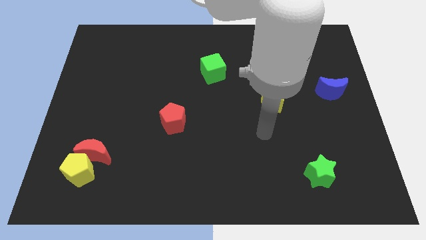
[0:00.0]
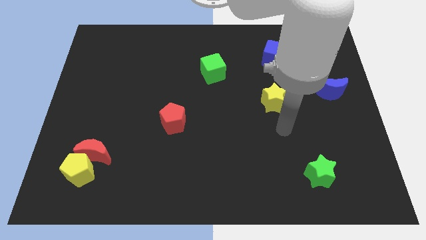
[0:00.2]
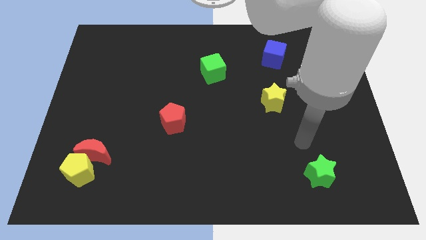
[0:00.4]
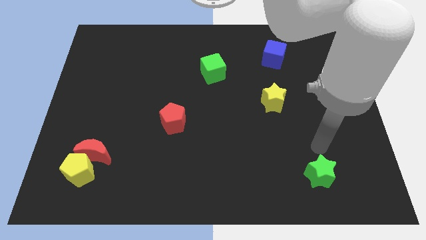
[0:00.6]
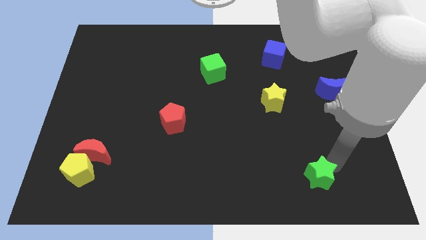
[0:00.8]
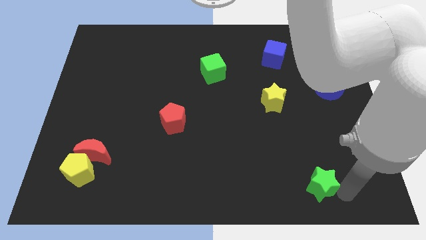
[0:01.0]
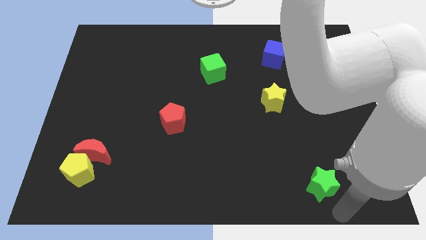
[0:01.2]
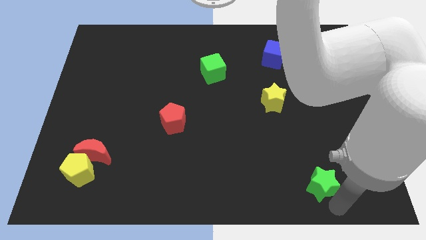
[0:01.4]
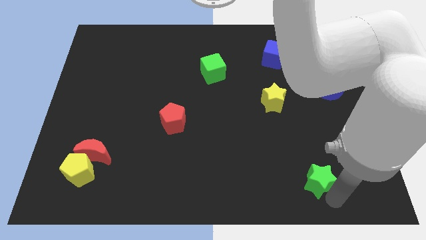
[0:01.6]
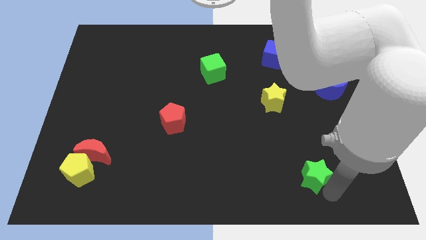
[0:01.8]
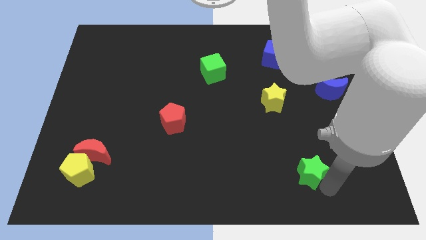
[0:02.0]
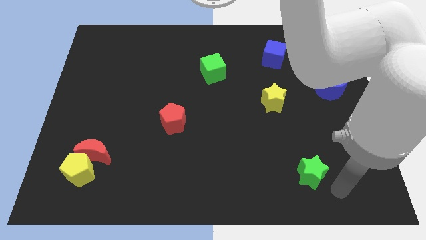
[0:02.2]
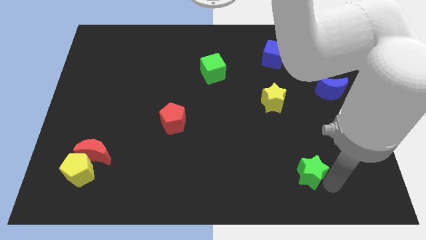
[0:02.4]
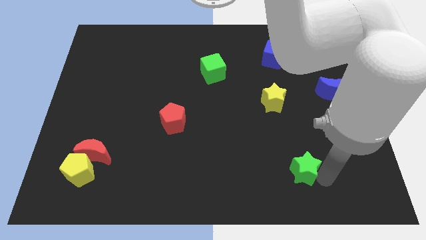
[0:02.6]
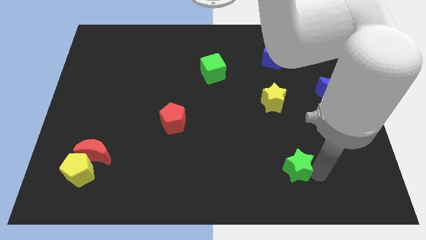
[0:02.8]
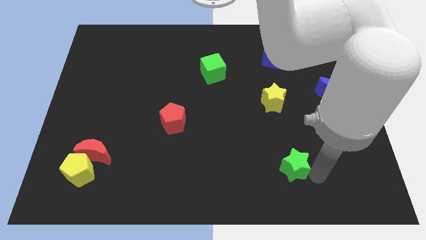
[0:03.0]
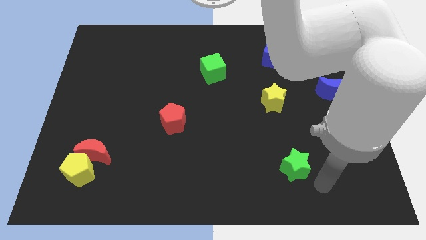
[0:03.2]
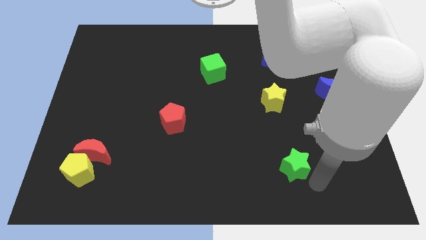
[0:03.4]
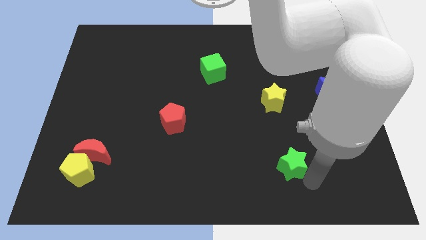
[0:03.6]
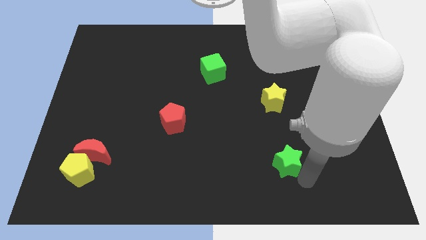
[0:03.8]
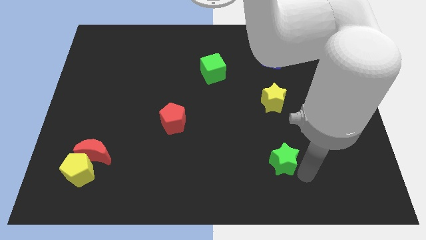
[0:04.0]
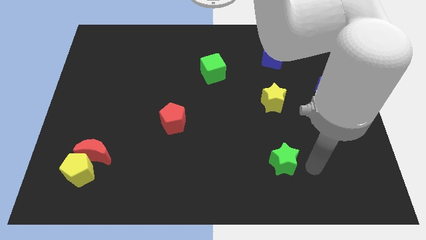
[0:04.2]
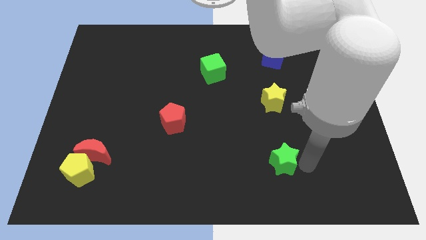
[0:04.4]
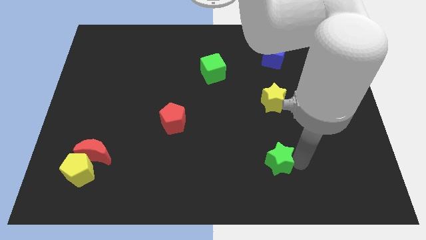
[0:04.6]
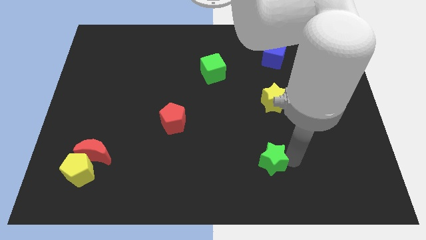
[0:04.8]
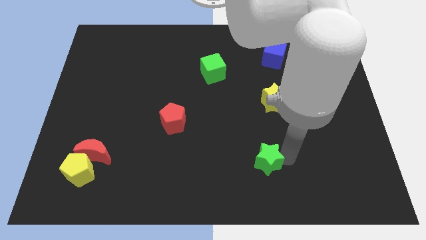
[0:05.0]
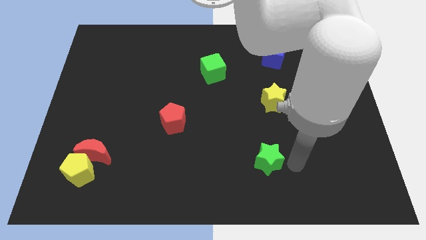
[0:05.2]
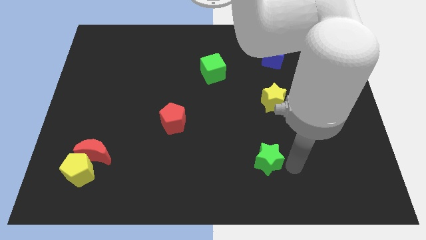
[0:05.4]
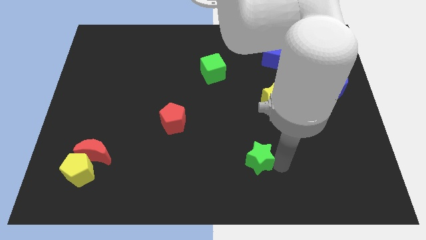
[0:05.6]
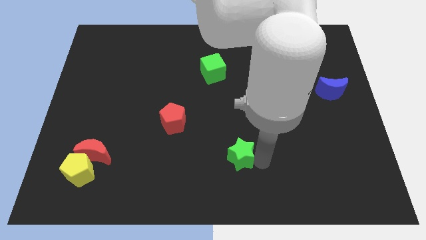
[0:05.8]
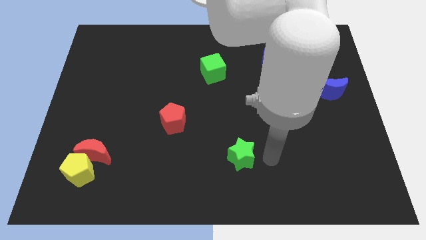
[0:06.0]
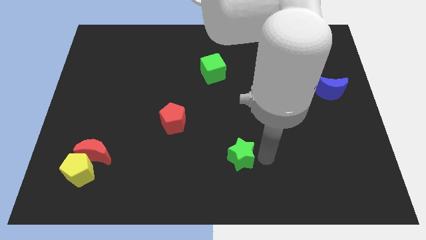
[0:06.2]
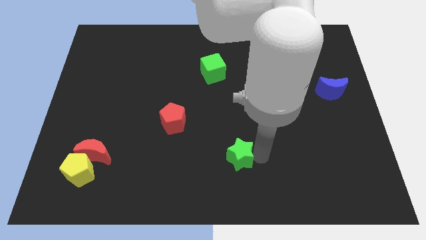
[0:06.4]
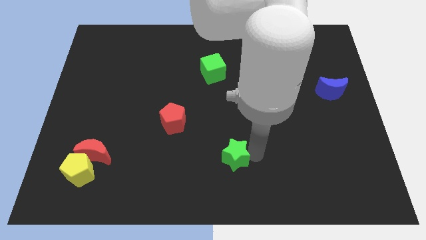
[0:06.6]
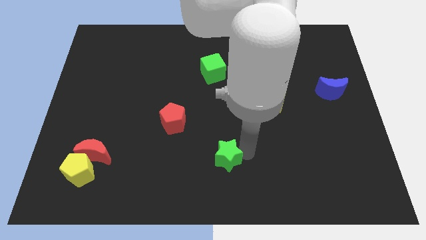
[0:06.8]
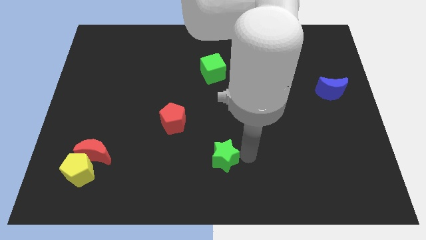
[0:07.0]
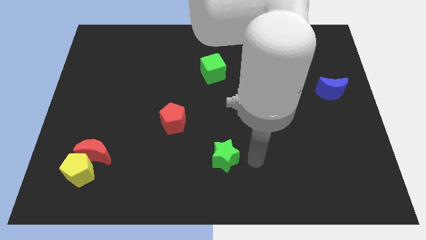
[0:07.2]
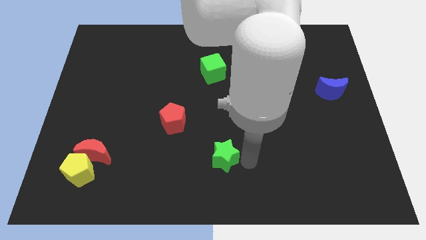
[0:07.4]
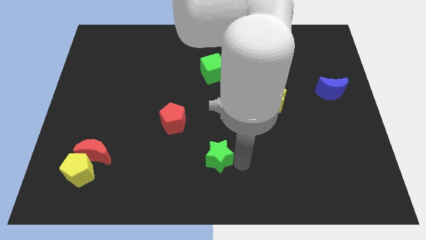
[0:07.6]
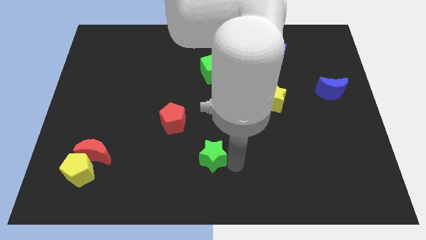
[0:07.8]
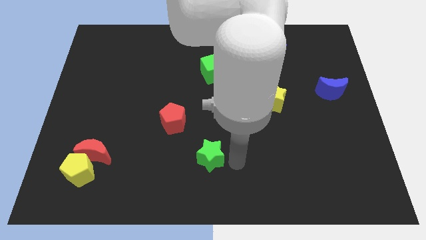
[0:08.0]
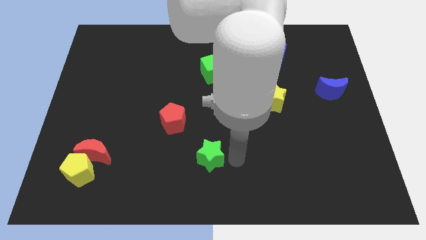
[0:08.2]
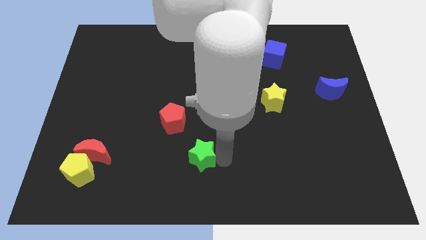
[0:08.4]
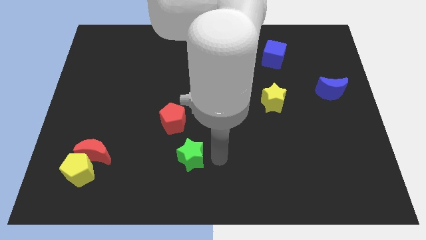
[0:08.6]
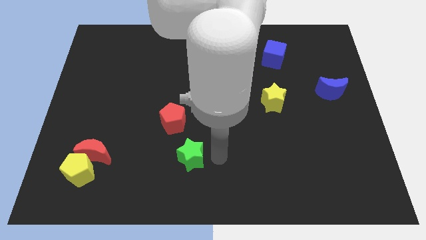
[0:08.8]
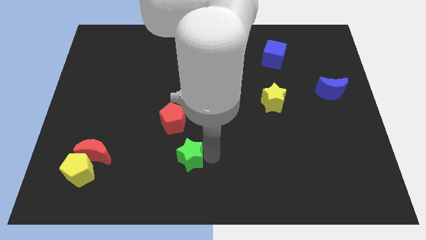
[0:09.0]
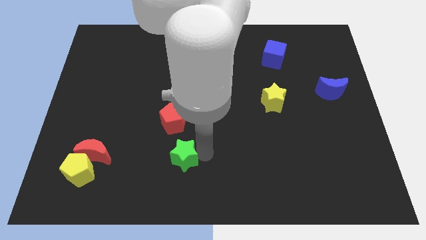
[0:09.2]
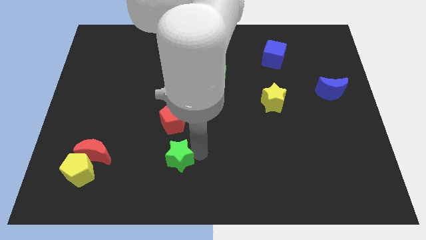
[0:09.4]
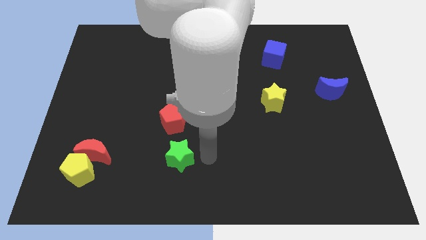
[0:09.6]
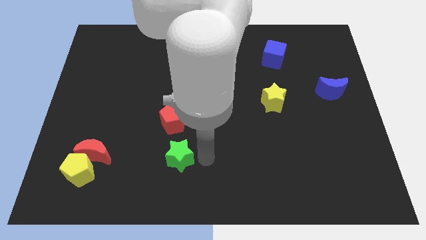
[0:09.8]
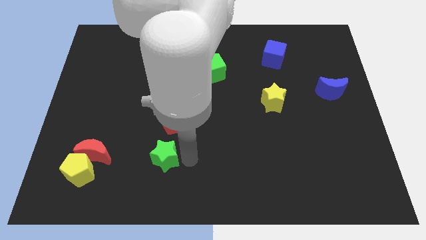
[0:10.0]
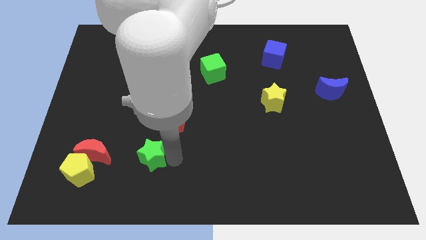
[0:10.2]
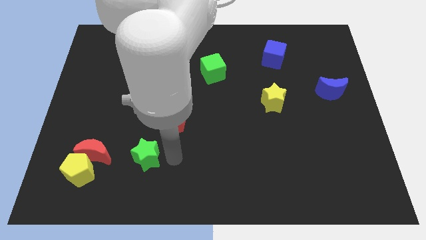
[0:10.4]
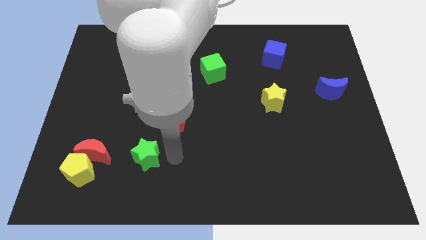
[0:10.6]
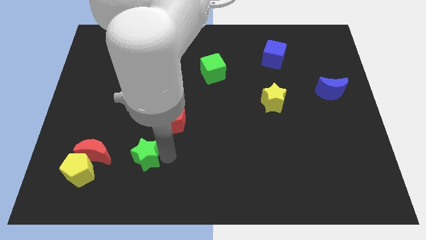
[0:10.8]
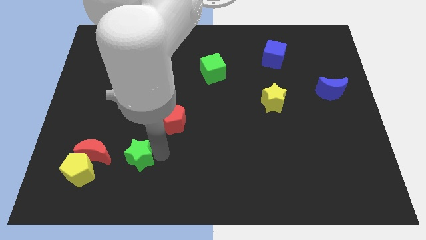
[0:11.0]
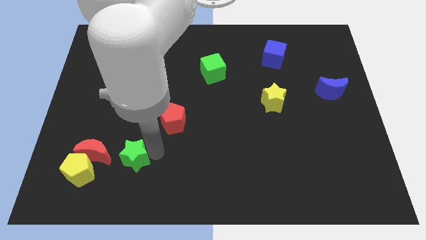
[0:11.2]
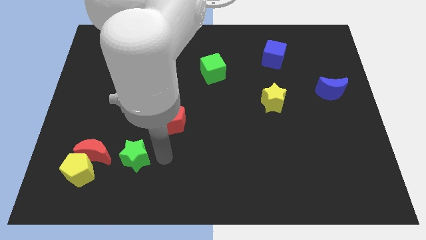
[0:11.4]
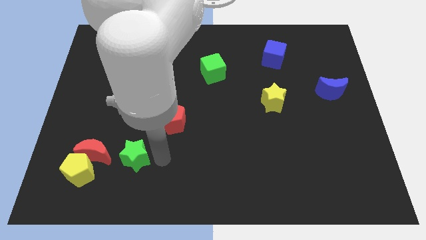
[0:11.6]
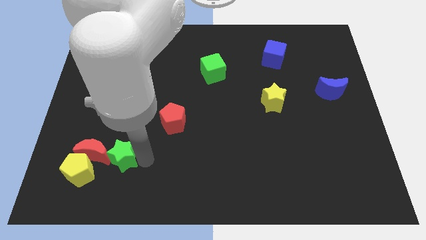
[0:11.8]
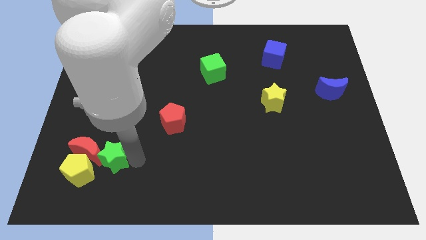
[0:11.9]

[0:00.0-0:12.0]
put the green star close to the red moon

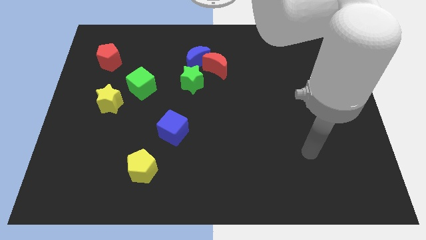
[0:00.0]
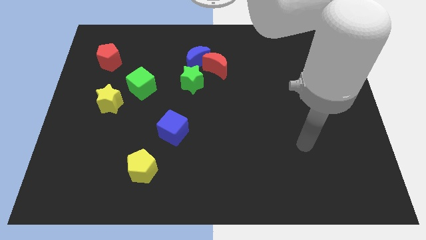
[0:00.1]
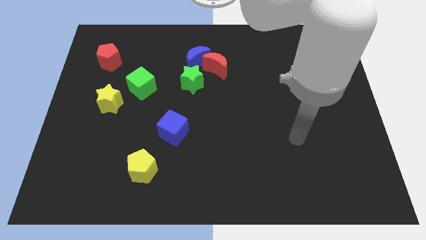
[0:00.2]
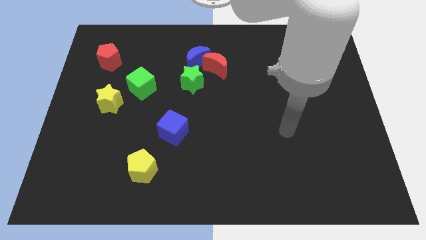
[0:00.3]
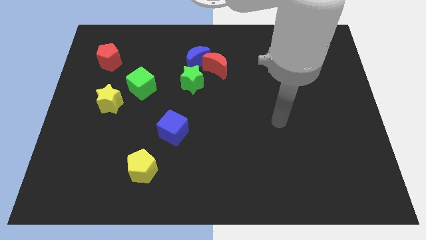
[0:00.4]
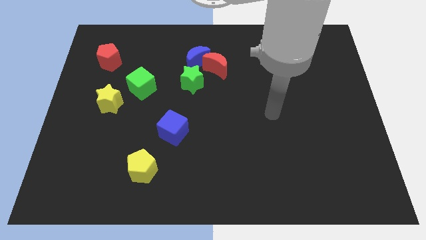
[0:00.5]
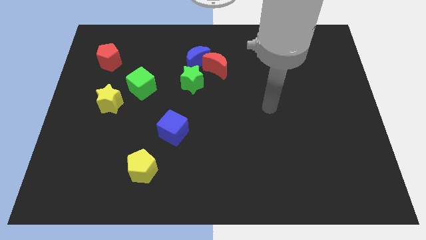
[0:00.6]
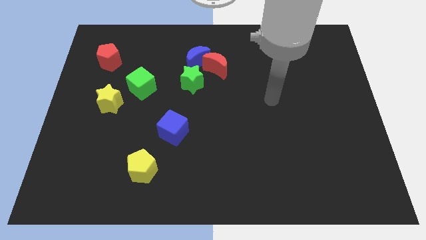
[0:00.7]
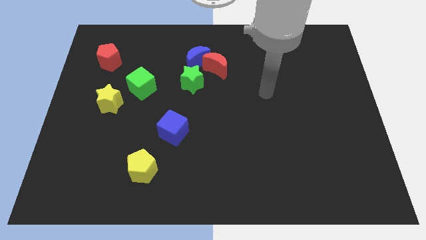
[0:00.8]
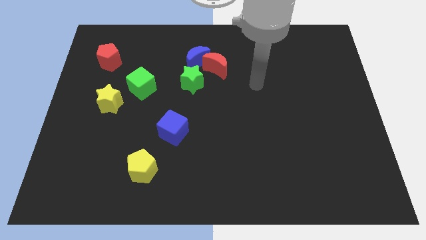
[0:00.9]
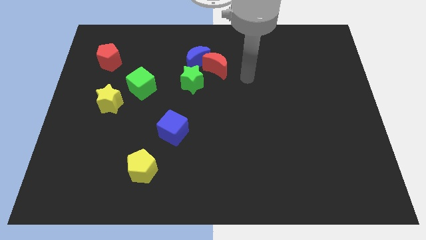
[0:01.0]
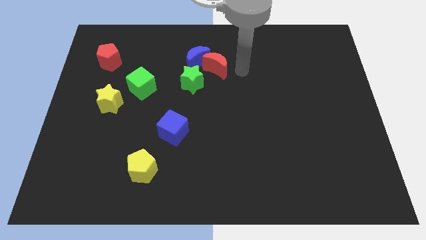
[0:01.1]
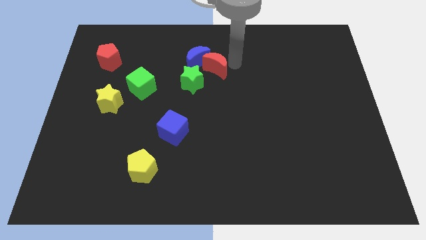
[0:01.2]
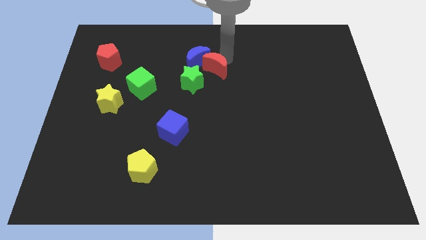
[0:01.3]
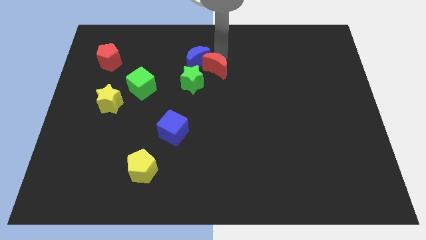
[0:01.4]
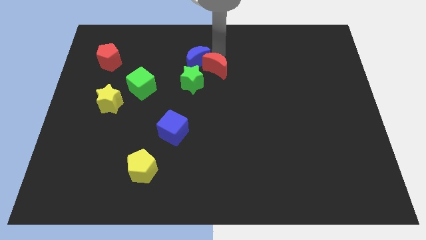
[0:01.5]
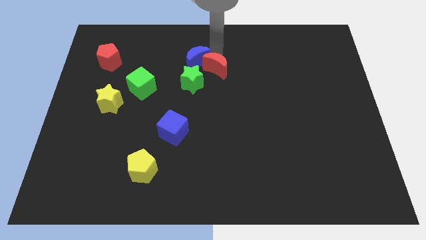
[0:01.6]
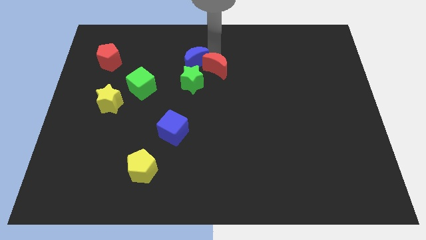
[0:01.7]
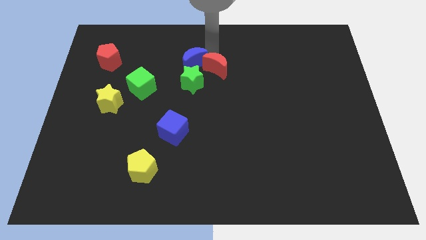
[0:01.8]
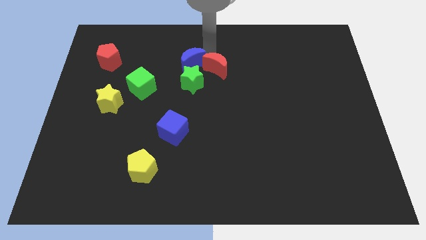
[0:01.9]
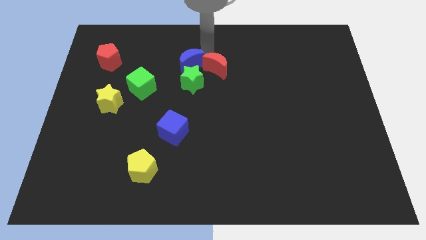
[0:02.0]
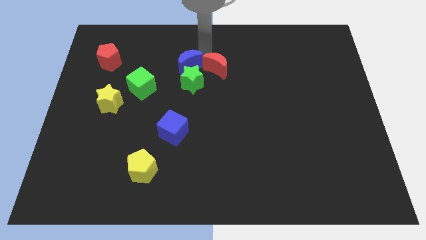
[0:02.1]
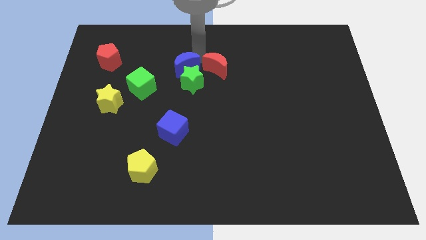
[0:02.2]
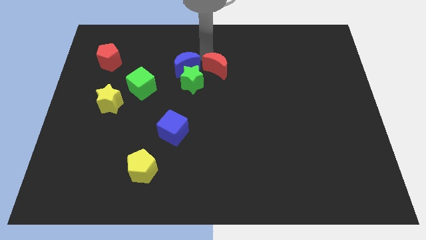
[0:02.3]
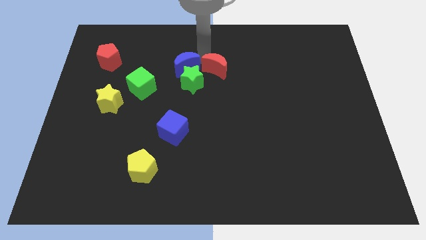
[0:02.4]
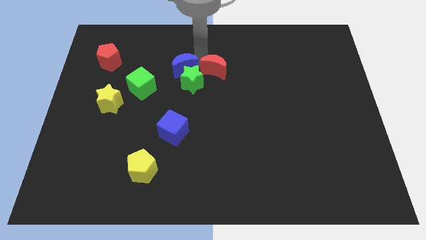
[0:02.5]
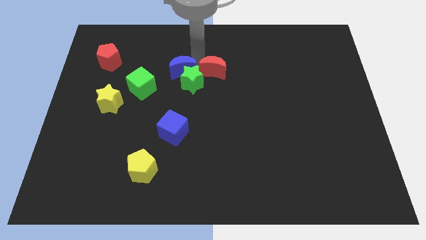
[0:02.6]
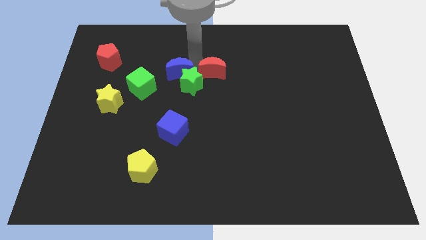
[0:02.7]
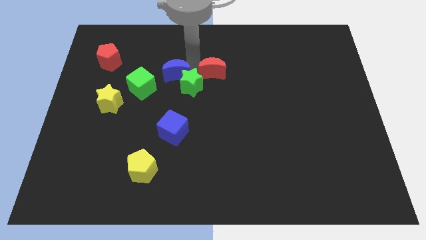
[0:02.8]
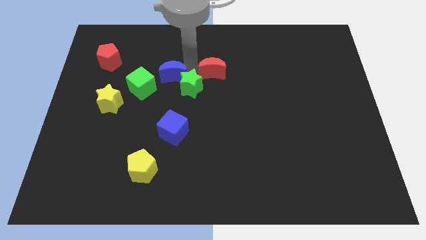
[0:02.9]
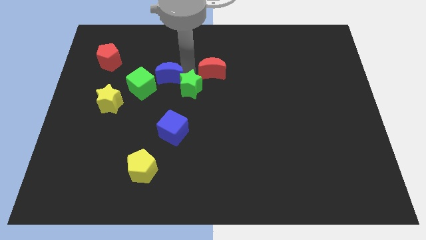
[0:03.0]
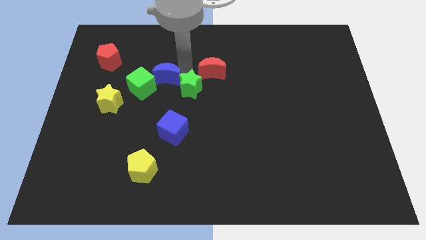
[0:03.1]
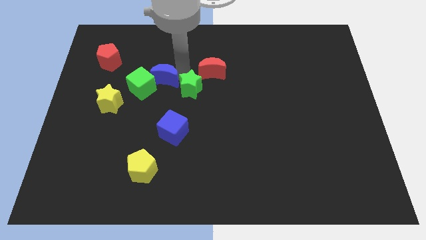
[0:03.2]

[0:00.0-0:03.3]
slide the blue moon to the green cube
